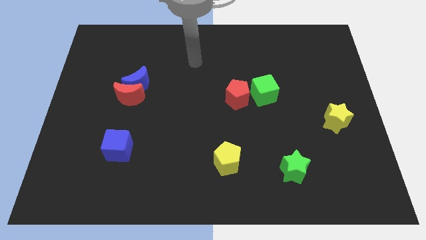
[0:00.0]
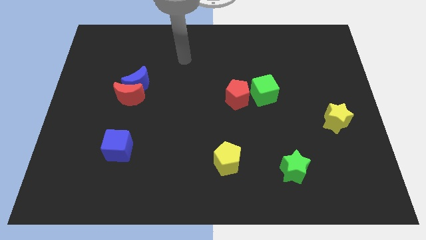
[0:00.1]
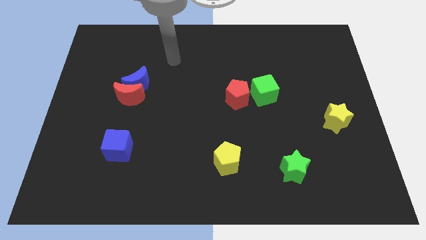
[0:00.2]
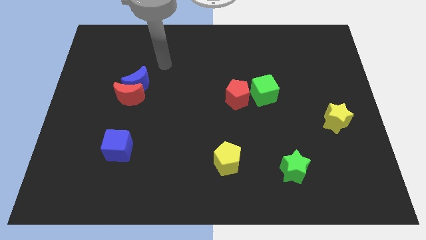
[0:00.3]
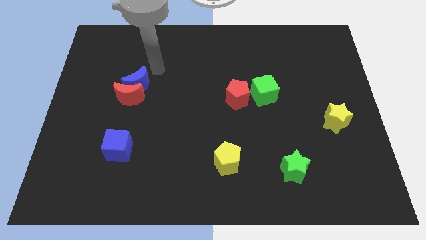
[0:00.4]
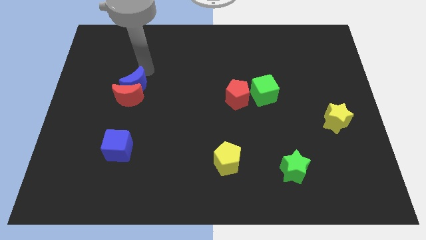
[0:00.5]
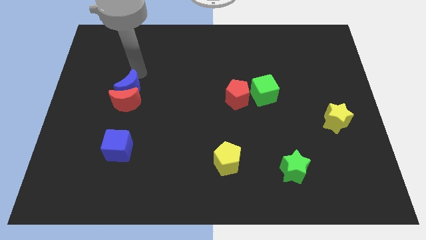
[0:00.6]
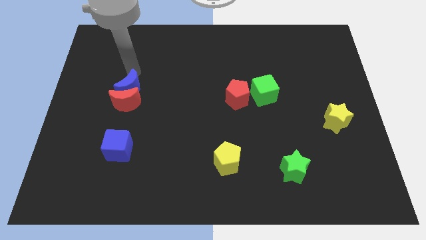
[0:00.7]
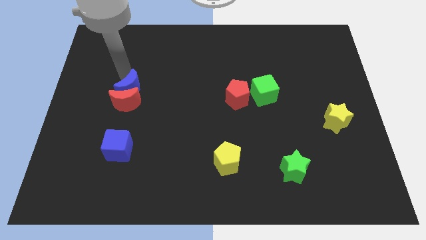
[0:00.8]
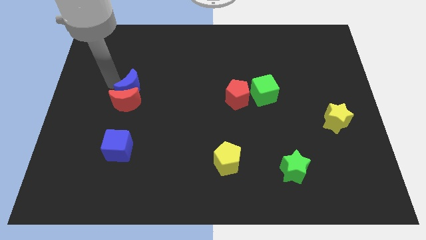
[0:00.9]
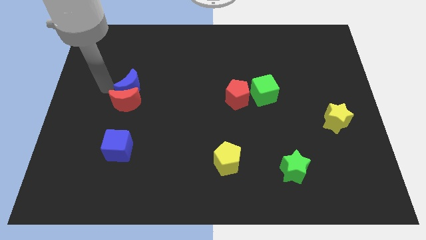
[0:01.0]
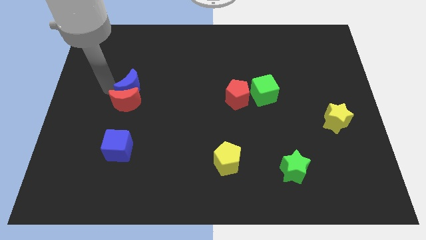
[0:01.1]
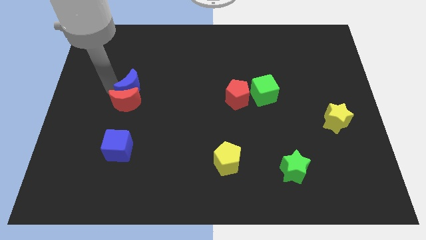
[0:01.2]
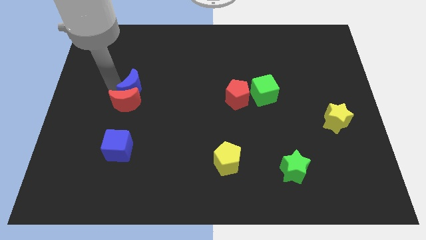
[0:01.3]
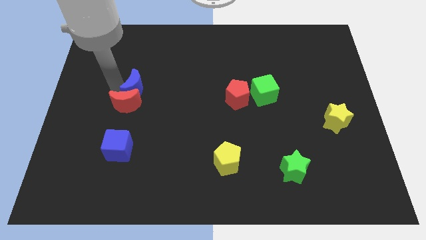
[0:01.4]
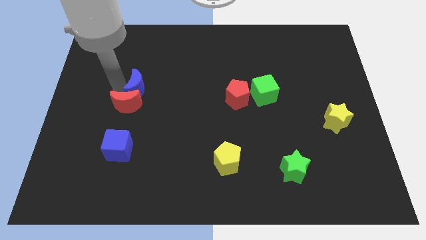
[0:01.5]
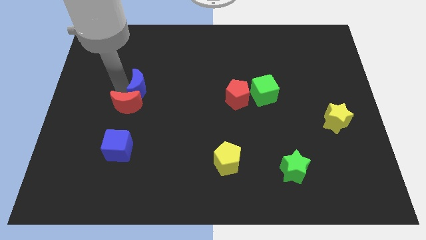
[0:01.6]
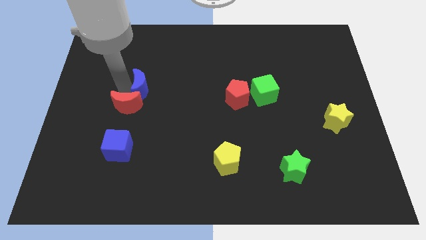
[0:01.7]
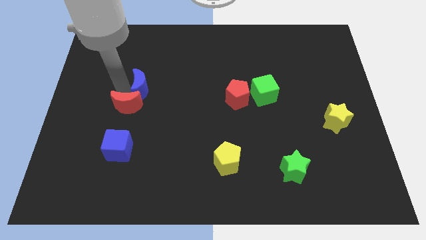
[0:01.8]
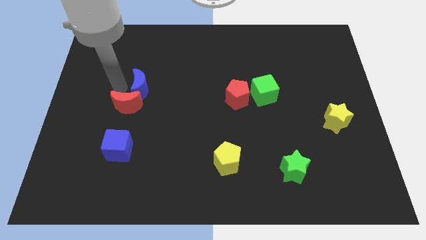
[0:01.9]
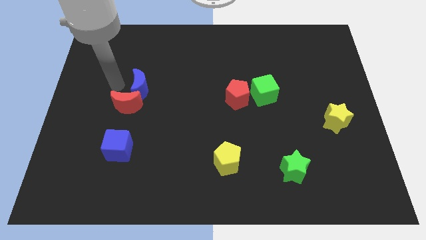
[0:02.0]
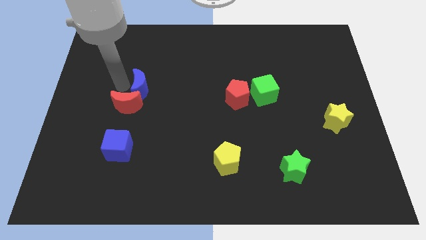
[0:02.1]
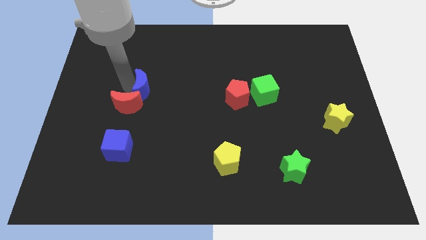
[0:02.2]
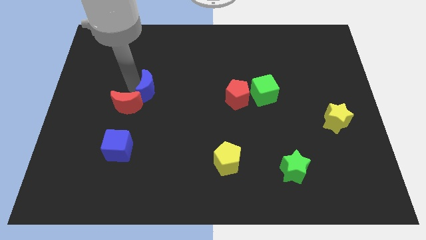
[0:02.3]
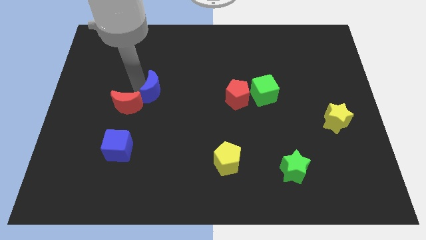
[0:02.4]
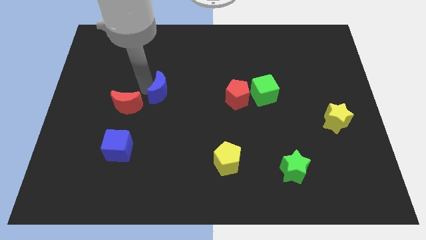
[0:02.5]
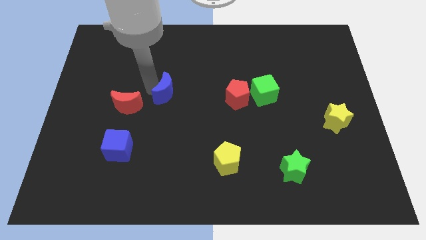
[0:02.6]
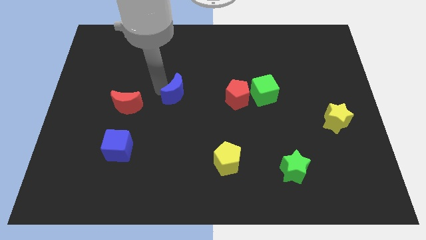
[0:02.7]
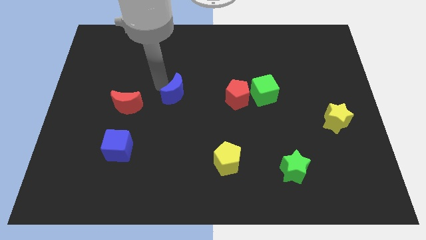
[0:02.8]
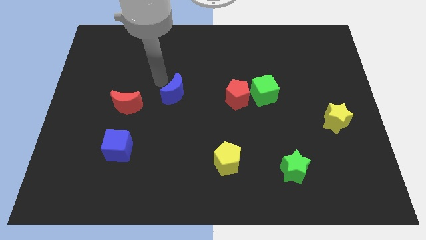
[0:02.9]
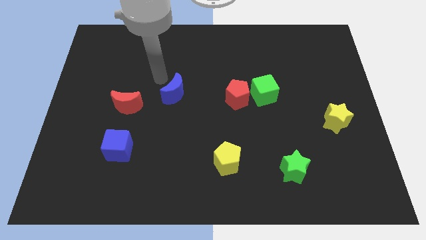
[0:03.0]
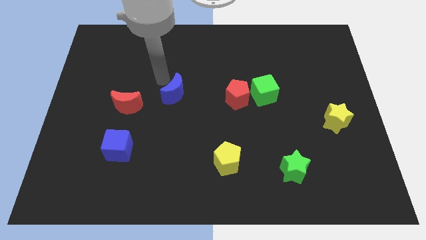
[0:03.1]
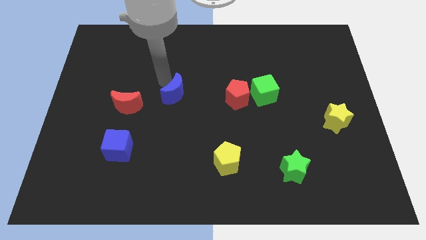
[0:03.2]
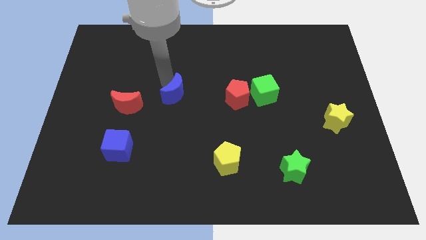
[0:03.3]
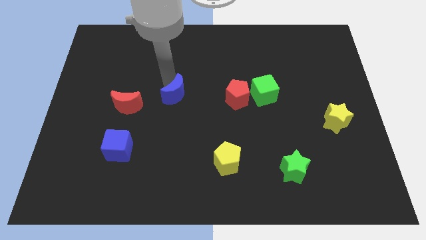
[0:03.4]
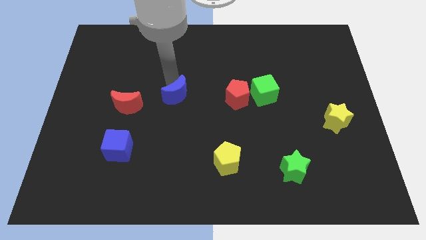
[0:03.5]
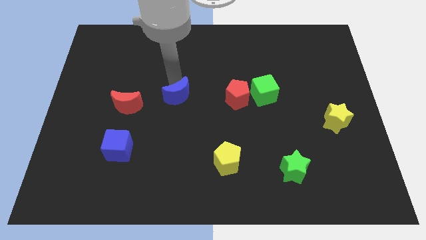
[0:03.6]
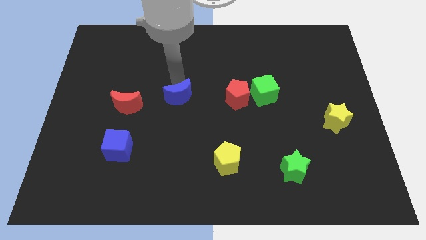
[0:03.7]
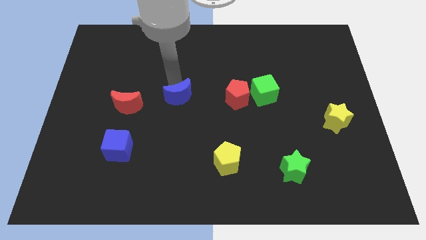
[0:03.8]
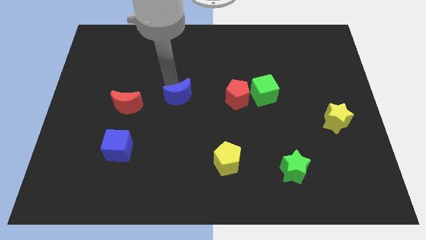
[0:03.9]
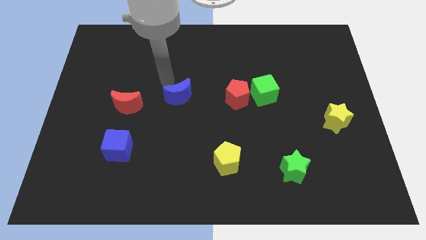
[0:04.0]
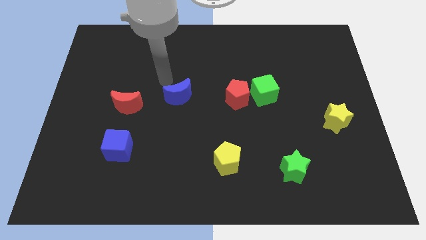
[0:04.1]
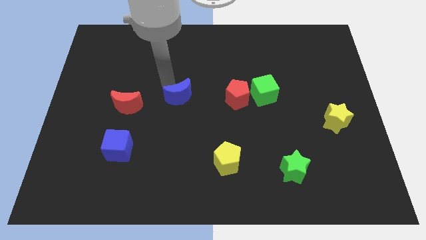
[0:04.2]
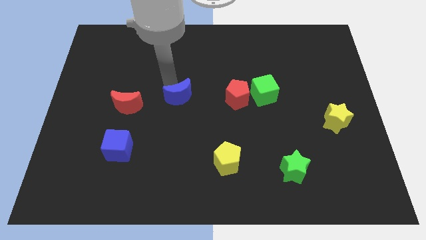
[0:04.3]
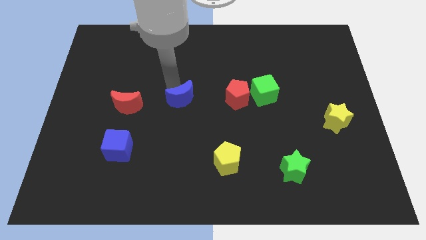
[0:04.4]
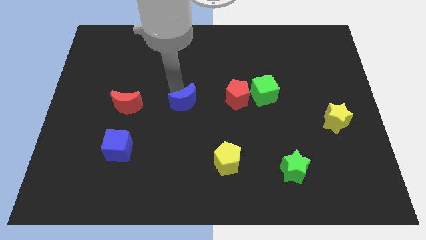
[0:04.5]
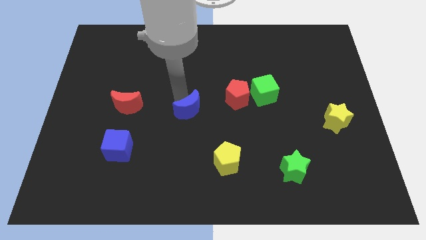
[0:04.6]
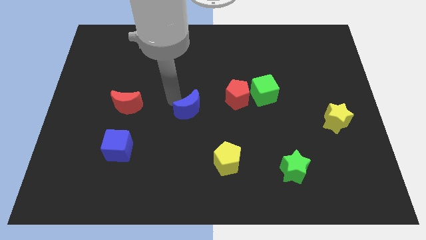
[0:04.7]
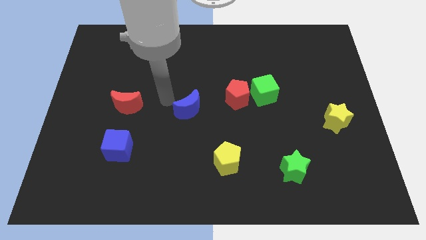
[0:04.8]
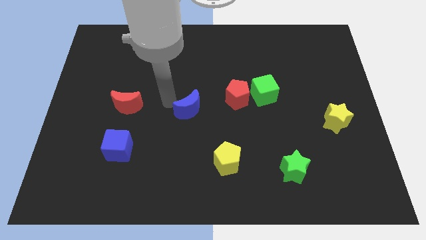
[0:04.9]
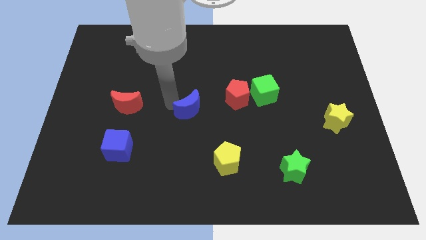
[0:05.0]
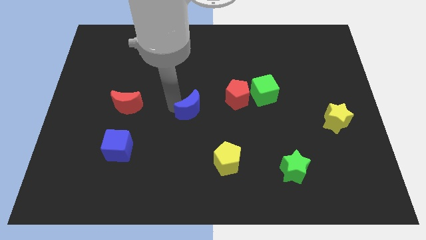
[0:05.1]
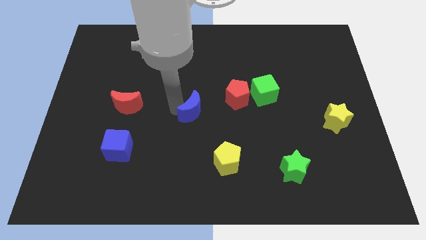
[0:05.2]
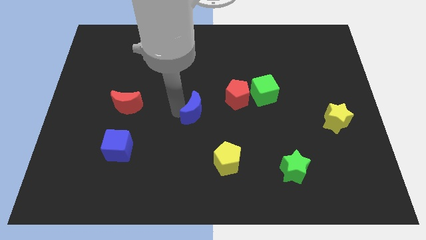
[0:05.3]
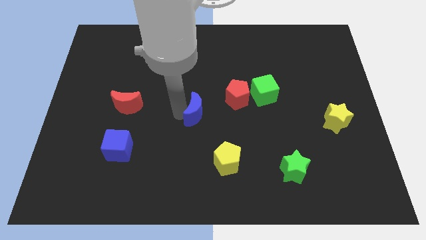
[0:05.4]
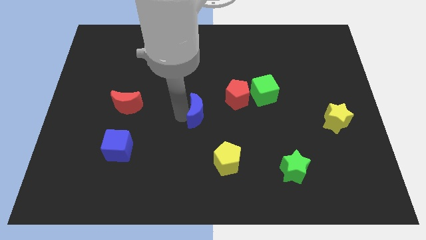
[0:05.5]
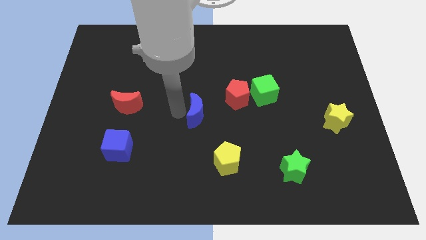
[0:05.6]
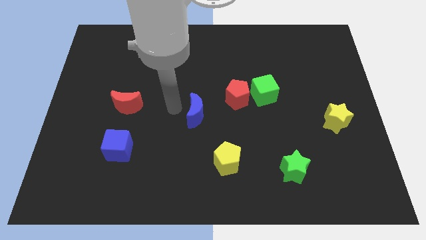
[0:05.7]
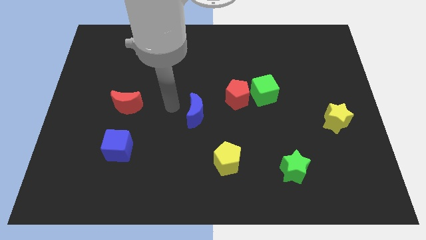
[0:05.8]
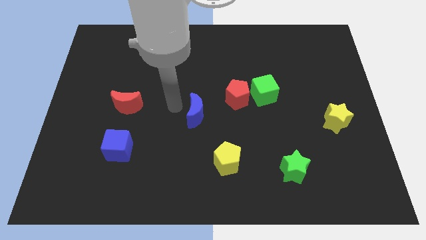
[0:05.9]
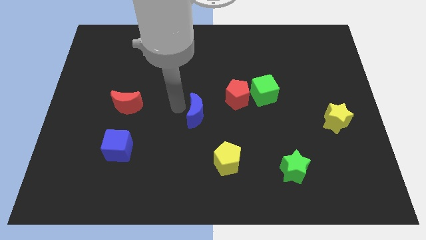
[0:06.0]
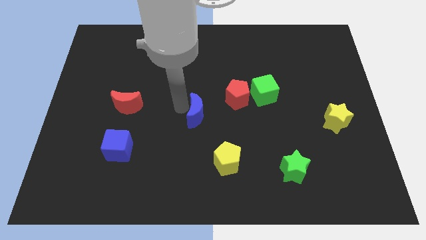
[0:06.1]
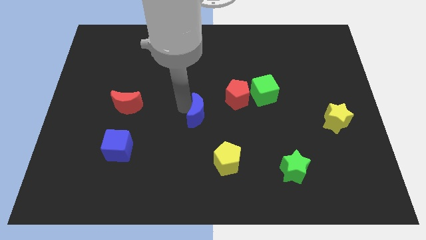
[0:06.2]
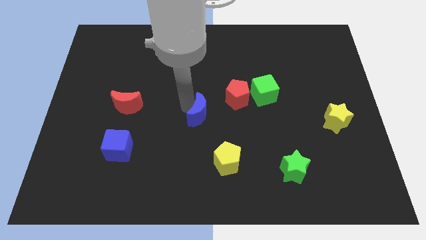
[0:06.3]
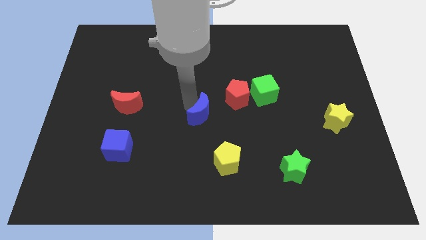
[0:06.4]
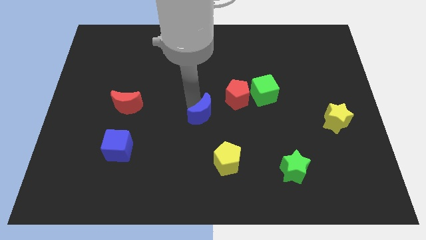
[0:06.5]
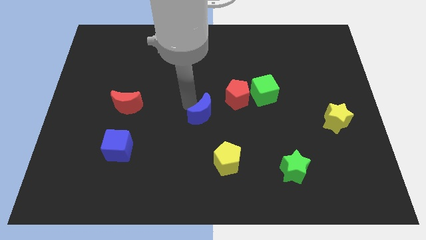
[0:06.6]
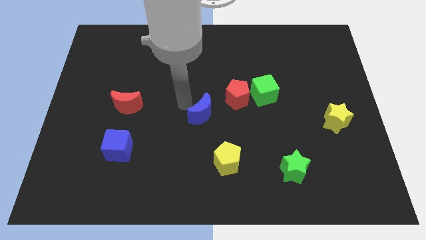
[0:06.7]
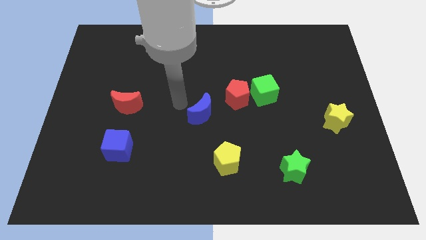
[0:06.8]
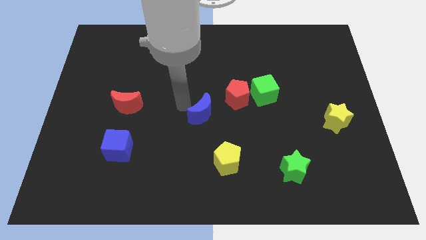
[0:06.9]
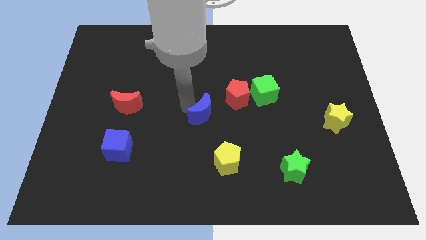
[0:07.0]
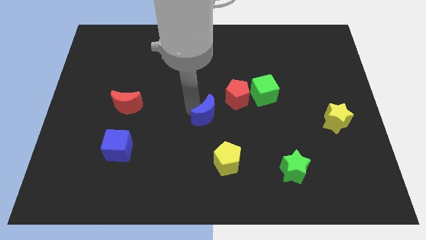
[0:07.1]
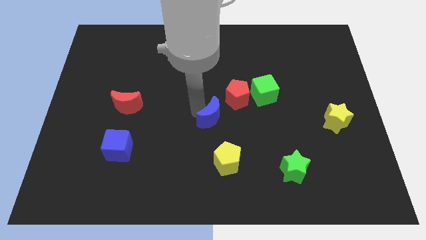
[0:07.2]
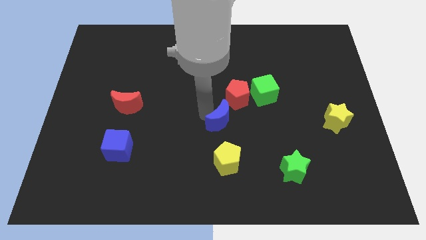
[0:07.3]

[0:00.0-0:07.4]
push the blue moon to the bottom side of the red pentagon
